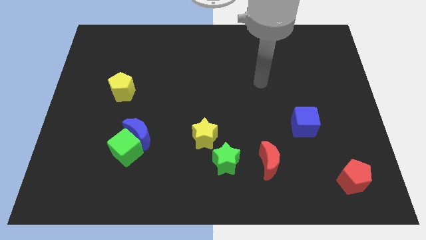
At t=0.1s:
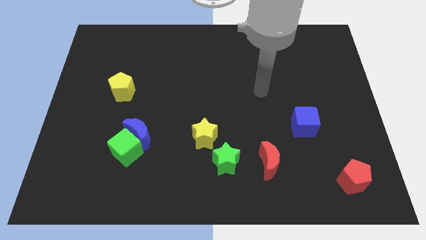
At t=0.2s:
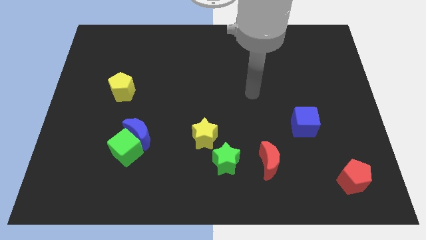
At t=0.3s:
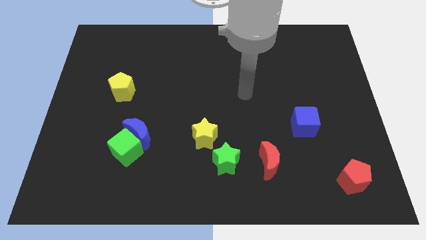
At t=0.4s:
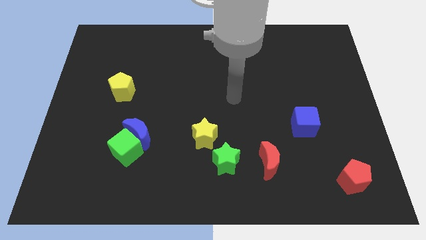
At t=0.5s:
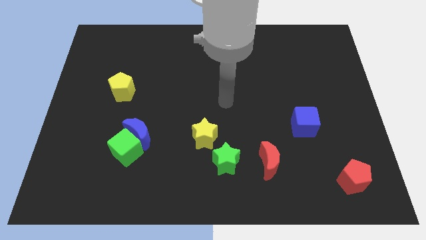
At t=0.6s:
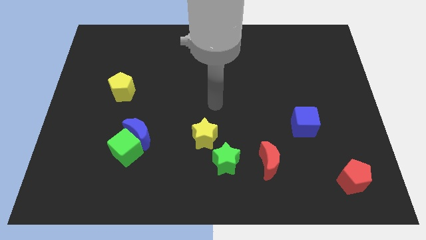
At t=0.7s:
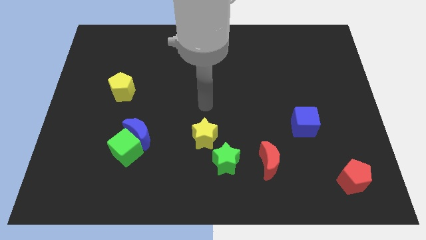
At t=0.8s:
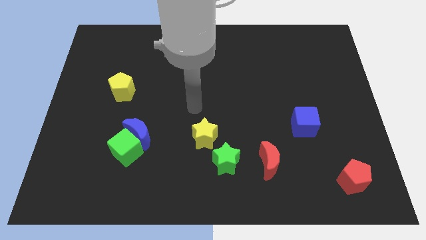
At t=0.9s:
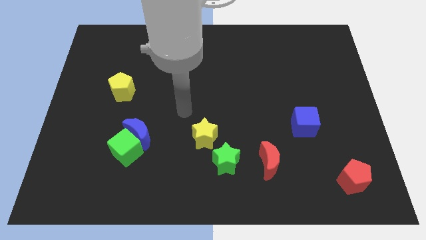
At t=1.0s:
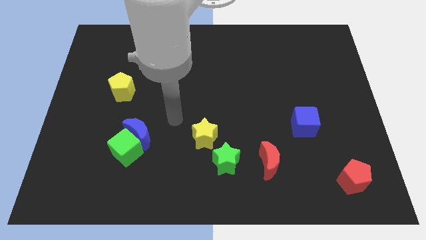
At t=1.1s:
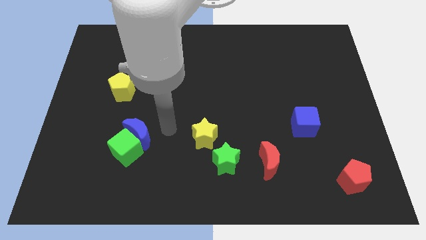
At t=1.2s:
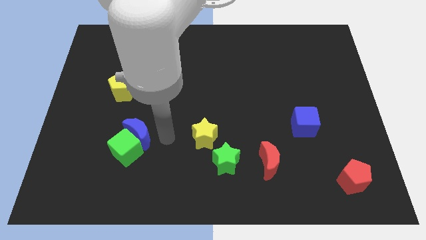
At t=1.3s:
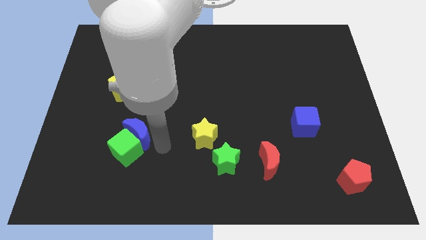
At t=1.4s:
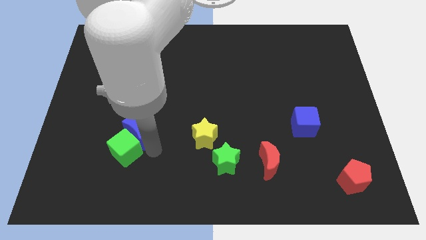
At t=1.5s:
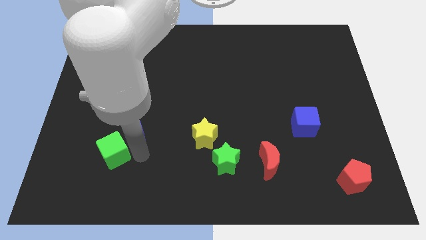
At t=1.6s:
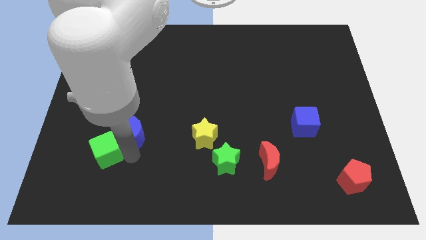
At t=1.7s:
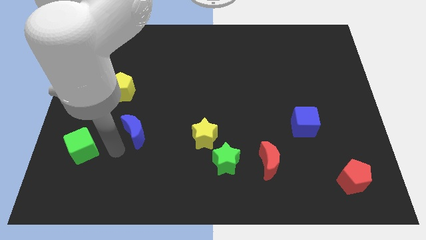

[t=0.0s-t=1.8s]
move the blue moon away from the green cube

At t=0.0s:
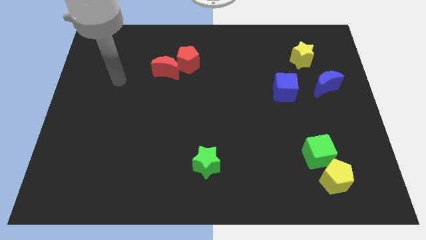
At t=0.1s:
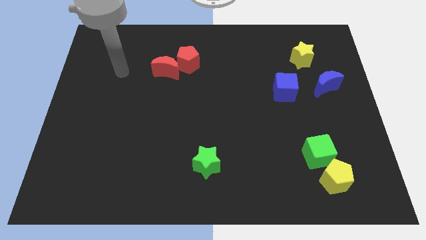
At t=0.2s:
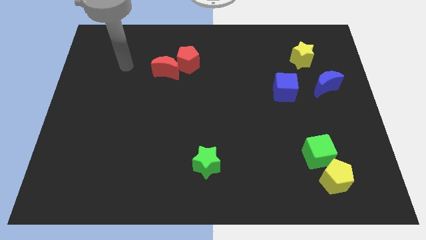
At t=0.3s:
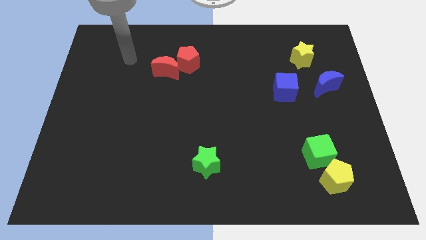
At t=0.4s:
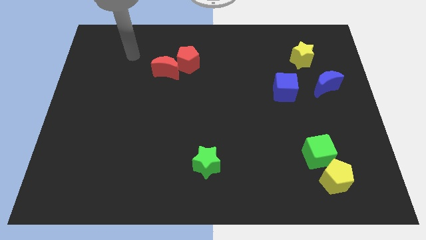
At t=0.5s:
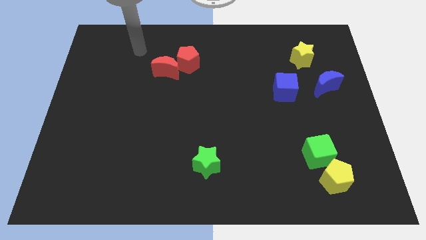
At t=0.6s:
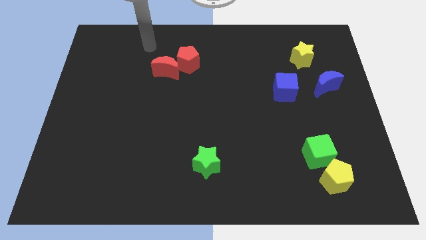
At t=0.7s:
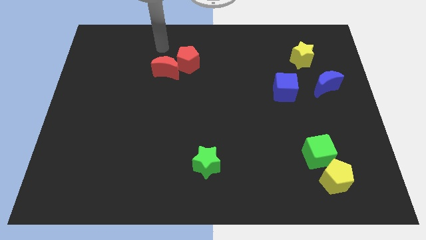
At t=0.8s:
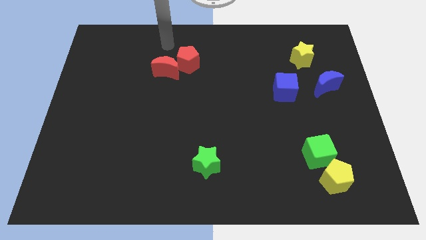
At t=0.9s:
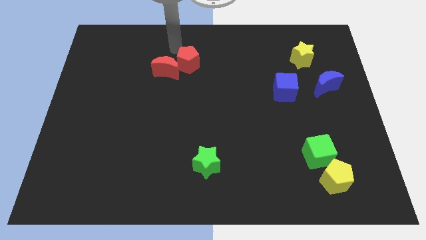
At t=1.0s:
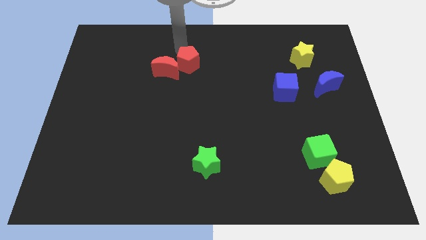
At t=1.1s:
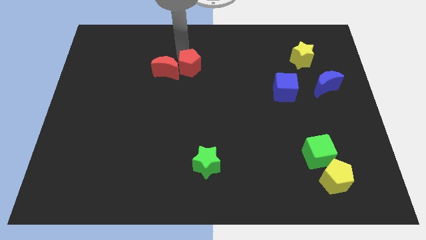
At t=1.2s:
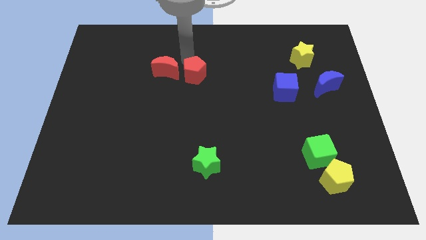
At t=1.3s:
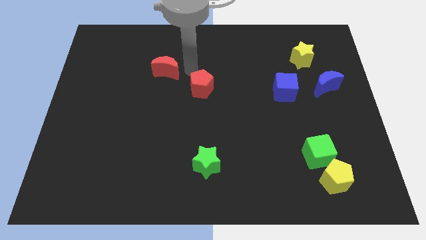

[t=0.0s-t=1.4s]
separate the red moon from the red pentagon

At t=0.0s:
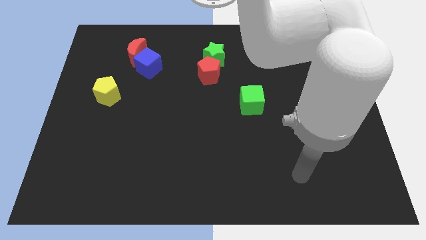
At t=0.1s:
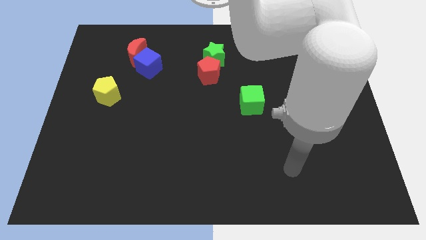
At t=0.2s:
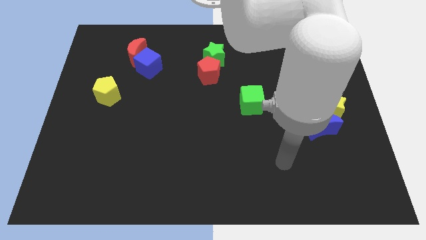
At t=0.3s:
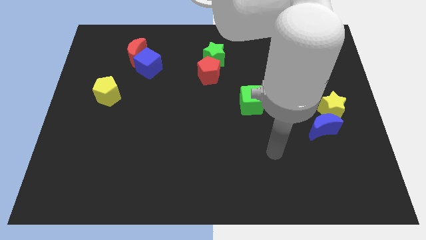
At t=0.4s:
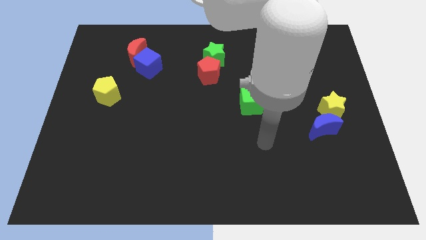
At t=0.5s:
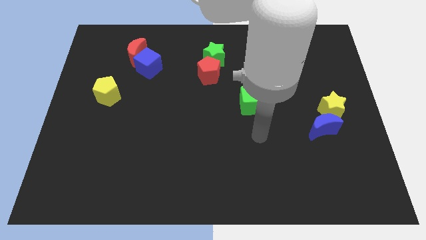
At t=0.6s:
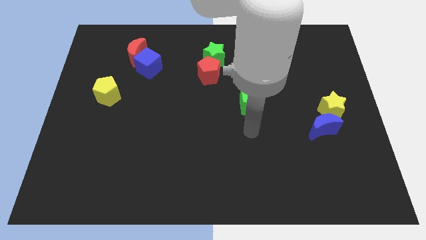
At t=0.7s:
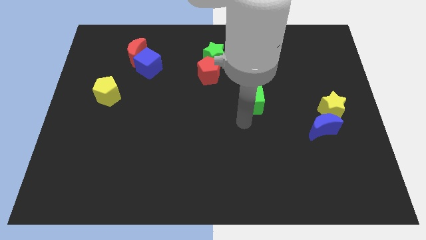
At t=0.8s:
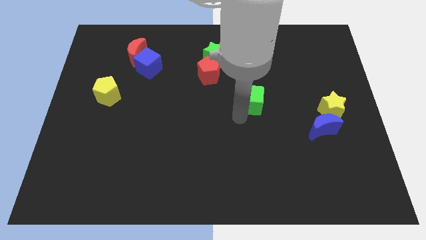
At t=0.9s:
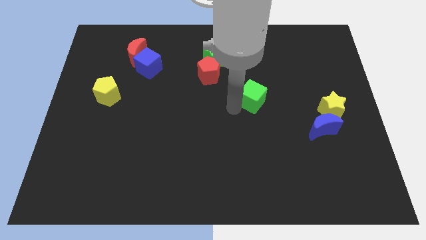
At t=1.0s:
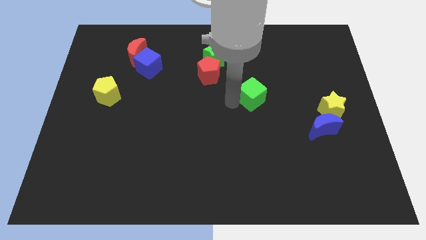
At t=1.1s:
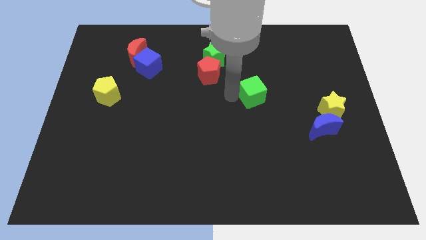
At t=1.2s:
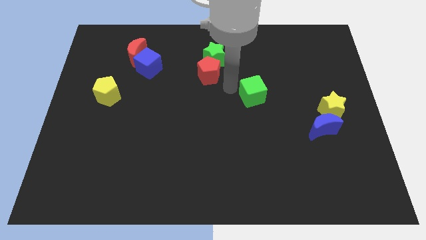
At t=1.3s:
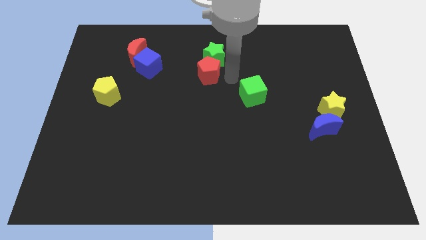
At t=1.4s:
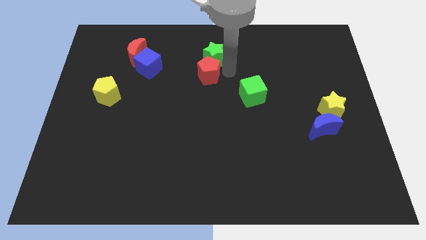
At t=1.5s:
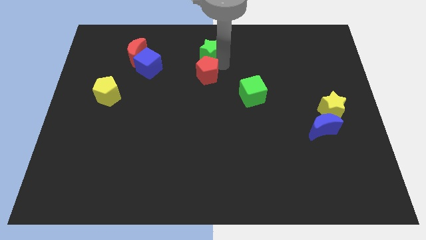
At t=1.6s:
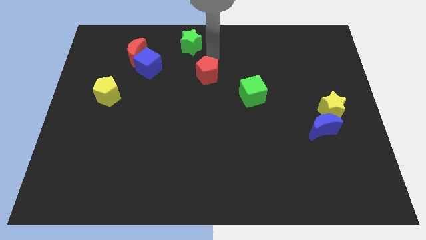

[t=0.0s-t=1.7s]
separate the red pentagon from the green star

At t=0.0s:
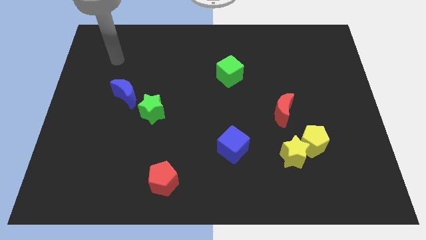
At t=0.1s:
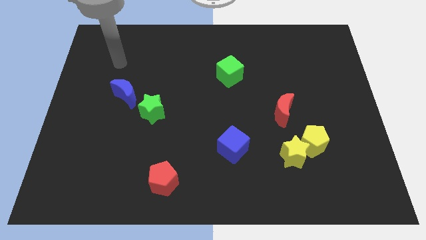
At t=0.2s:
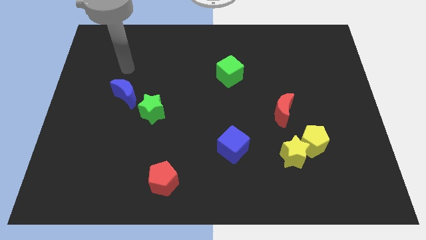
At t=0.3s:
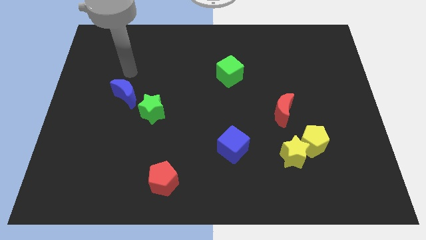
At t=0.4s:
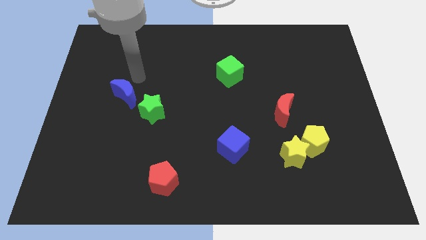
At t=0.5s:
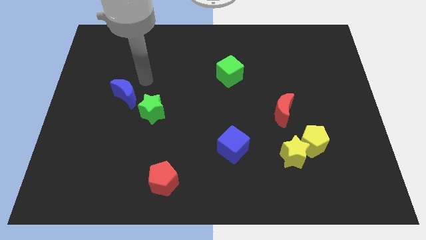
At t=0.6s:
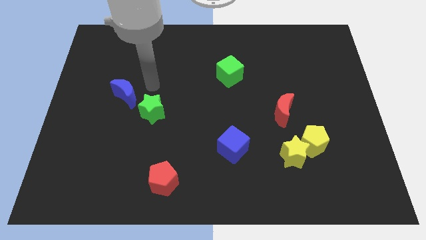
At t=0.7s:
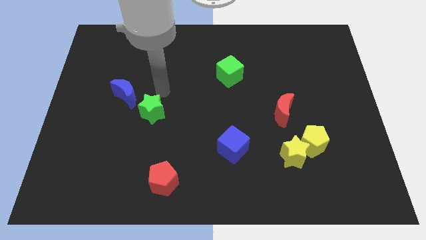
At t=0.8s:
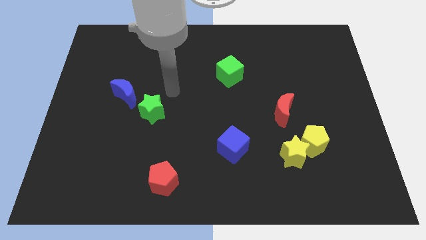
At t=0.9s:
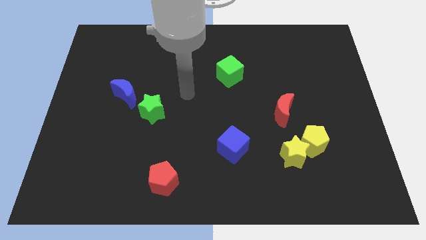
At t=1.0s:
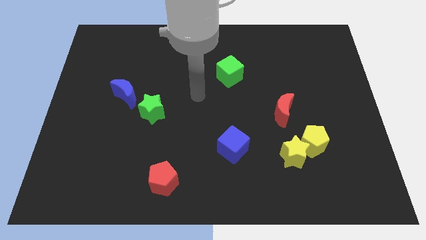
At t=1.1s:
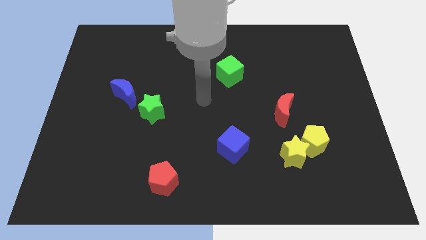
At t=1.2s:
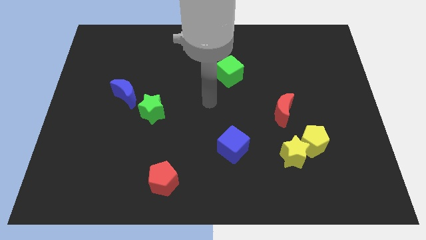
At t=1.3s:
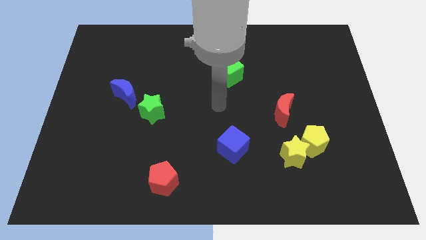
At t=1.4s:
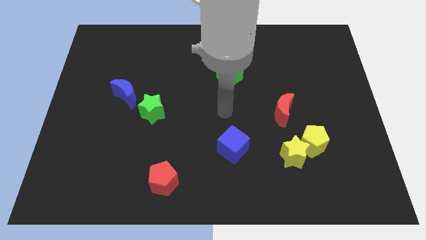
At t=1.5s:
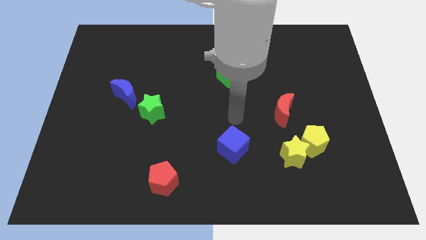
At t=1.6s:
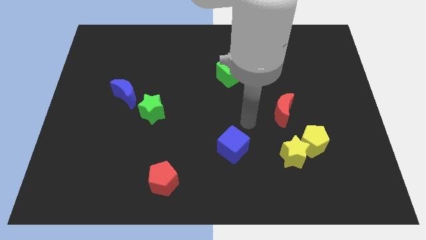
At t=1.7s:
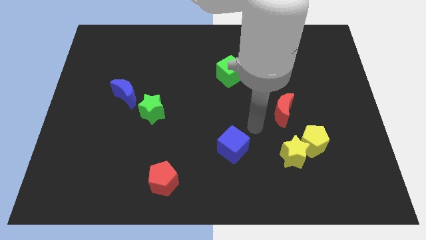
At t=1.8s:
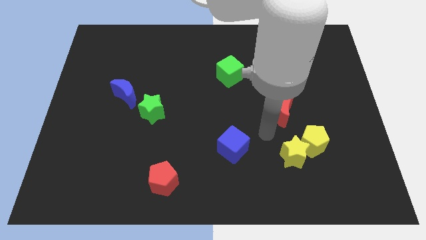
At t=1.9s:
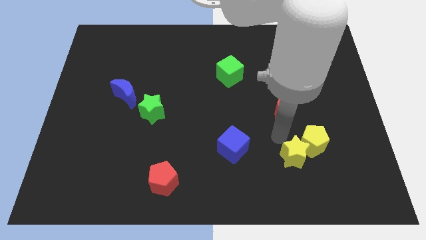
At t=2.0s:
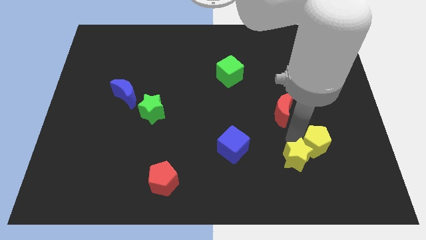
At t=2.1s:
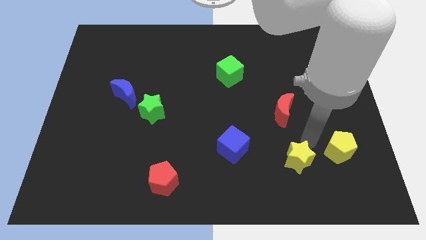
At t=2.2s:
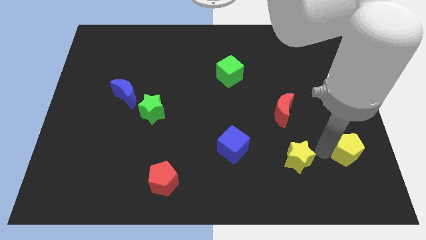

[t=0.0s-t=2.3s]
separate the yellow star from the yellow pentagon

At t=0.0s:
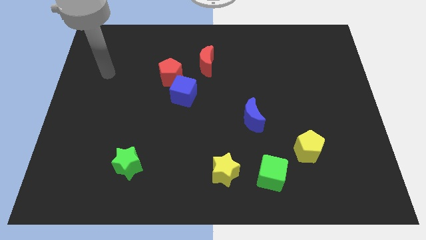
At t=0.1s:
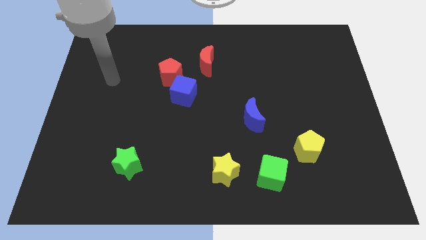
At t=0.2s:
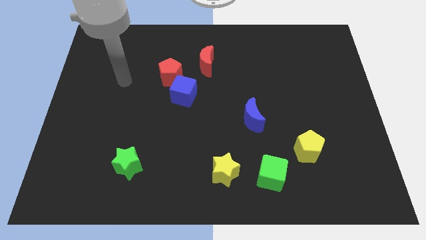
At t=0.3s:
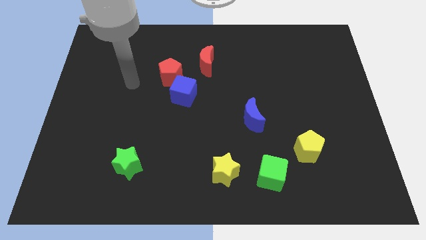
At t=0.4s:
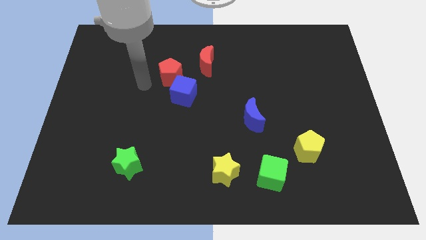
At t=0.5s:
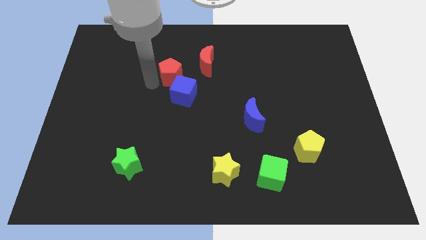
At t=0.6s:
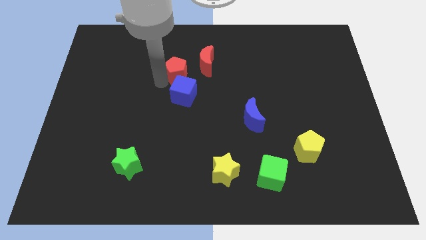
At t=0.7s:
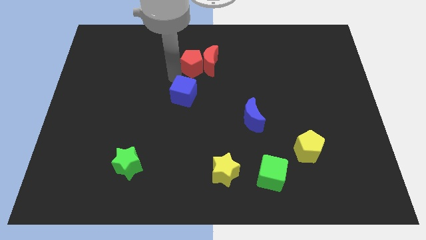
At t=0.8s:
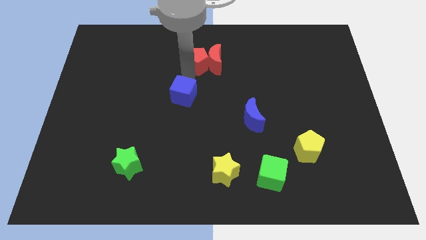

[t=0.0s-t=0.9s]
separate the blue cube from the red pentagon

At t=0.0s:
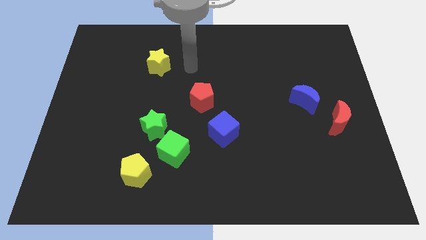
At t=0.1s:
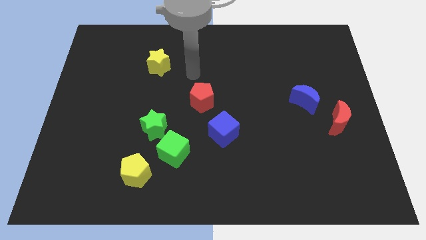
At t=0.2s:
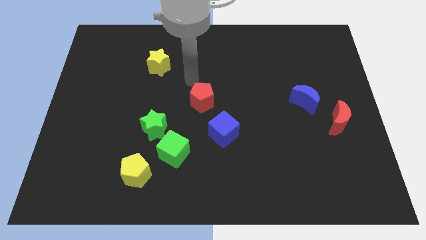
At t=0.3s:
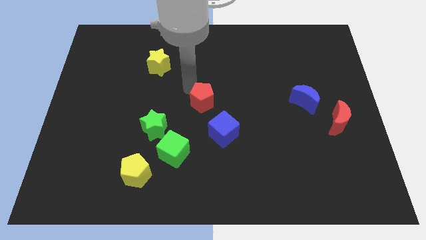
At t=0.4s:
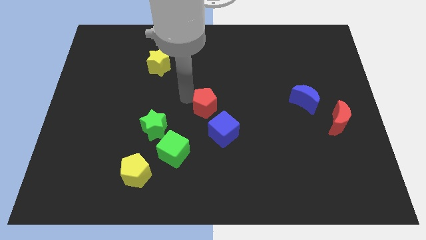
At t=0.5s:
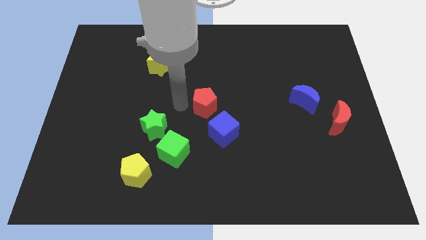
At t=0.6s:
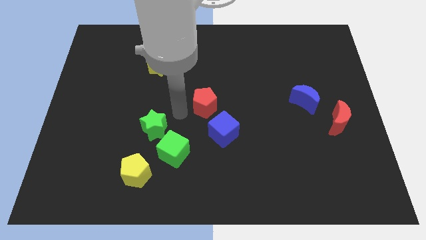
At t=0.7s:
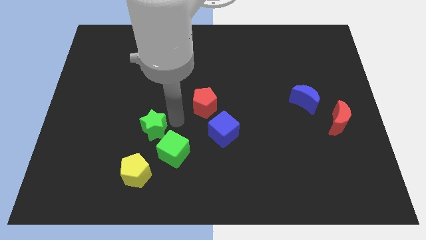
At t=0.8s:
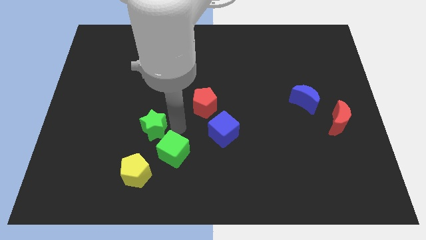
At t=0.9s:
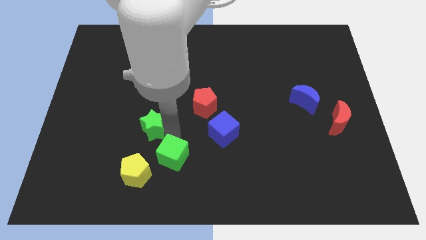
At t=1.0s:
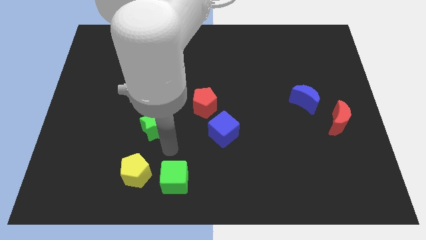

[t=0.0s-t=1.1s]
separate the green star from the green cube

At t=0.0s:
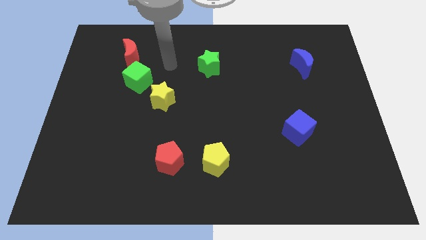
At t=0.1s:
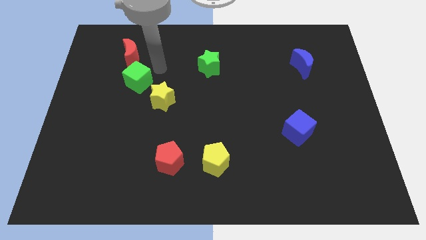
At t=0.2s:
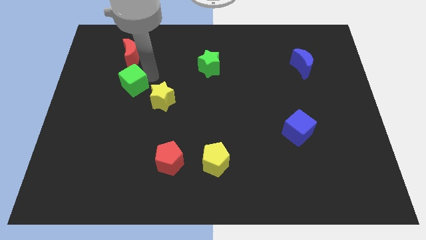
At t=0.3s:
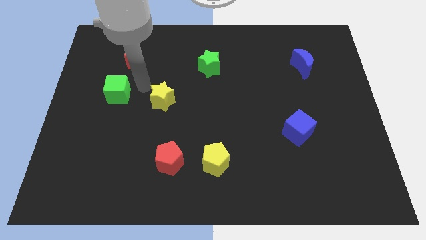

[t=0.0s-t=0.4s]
pull the yellow star apart from the green cube
